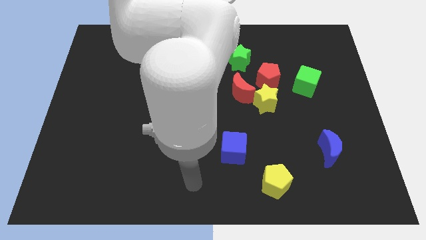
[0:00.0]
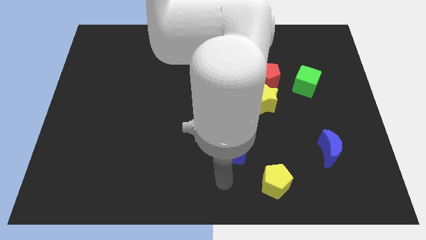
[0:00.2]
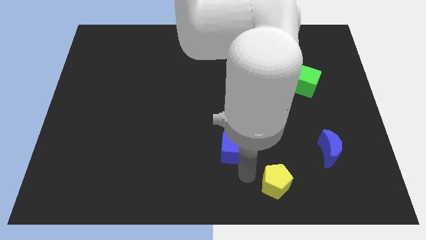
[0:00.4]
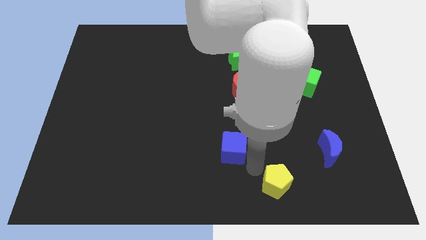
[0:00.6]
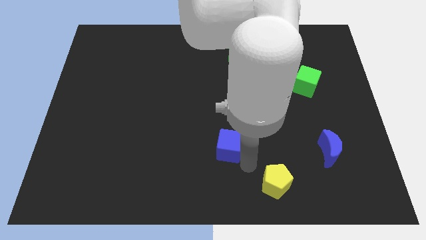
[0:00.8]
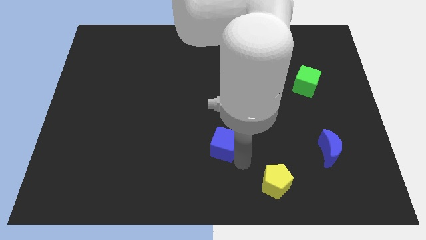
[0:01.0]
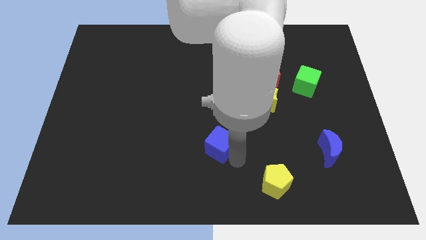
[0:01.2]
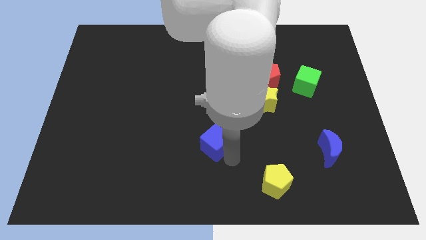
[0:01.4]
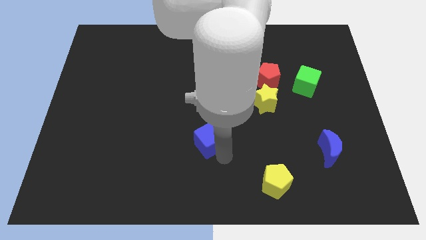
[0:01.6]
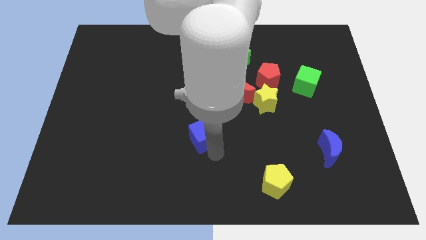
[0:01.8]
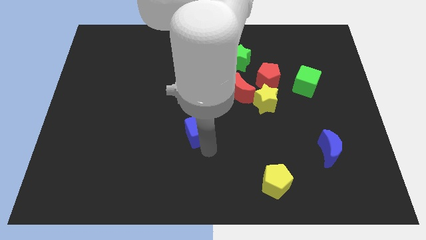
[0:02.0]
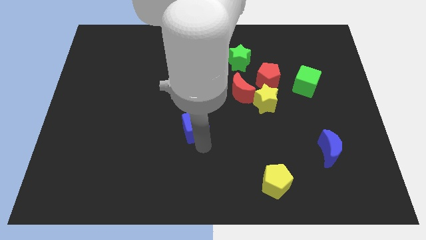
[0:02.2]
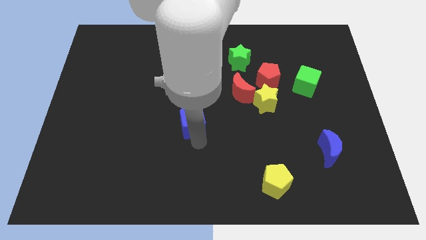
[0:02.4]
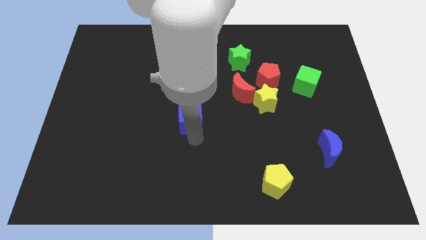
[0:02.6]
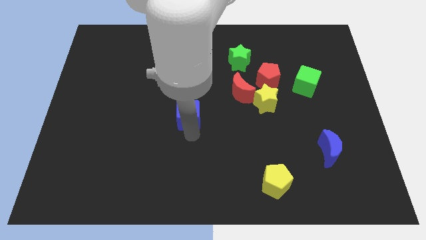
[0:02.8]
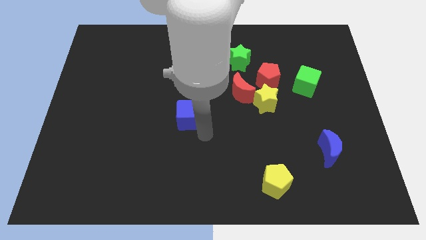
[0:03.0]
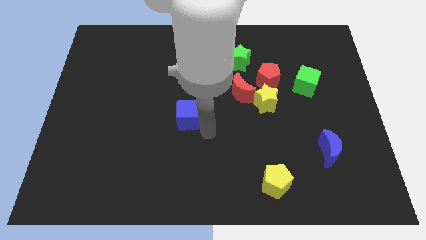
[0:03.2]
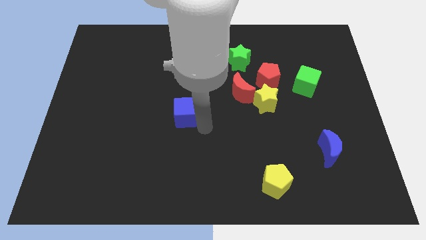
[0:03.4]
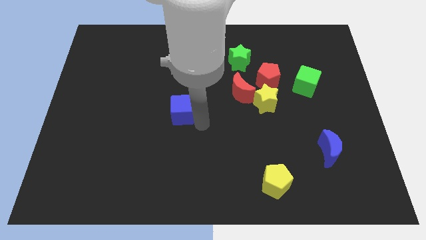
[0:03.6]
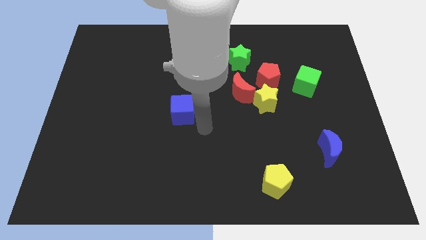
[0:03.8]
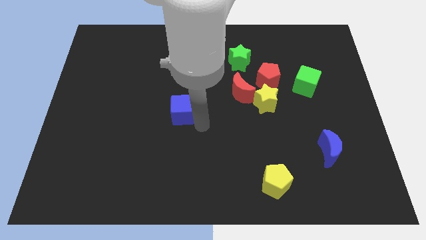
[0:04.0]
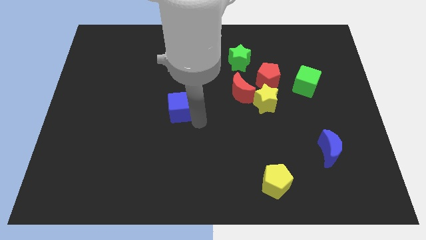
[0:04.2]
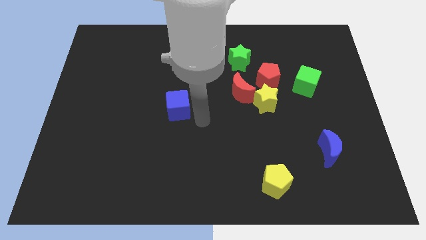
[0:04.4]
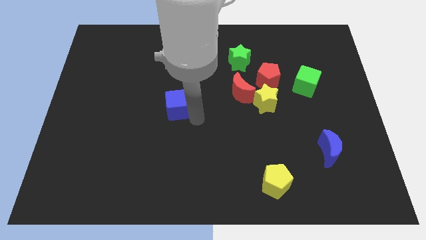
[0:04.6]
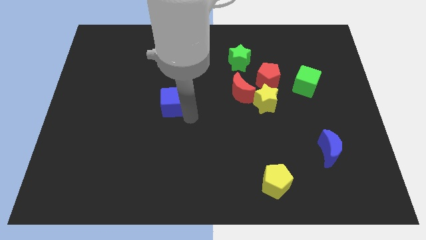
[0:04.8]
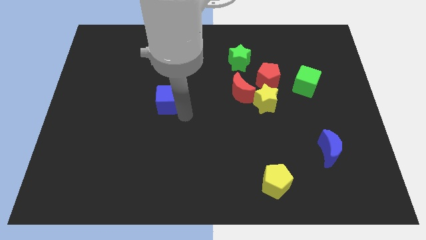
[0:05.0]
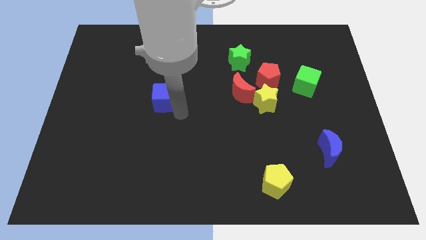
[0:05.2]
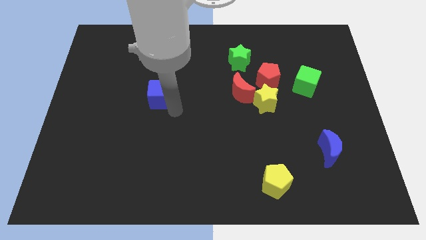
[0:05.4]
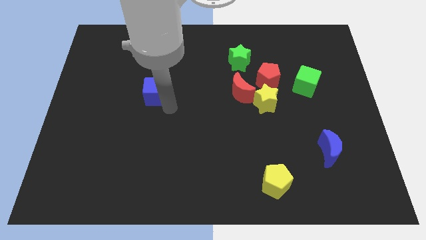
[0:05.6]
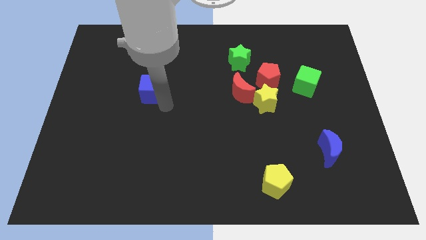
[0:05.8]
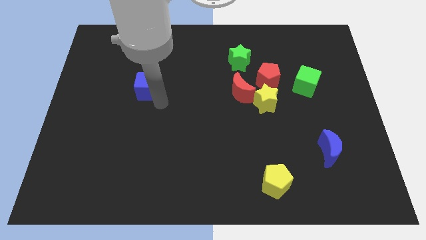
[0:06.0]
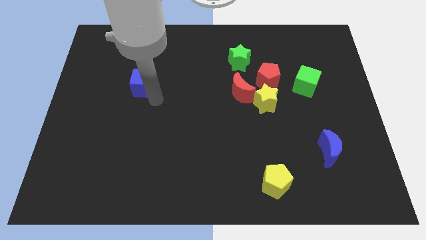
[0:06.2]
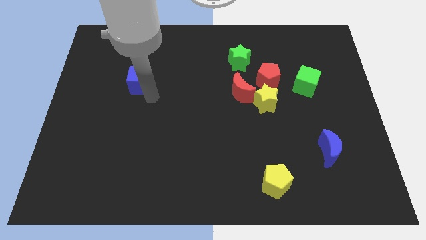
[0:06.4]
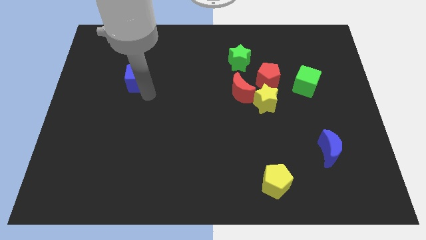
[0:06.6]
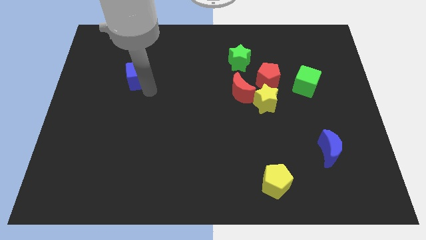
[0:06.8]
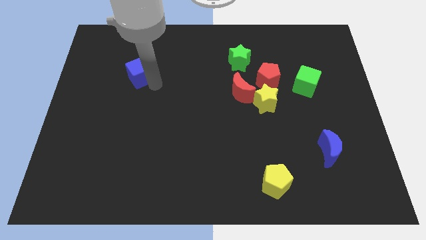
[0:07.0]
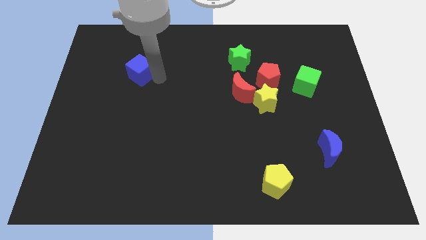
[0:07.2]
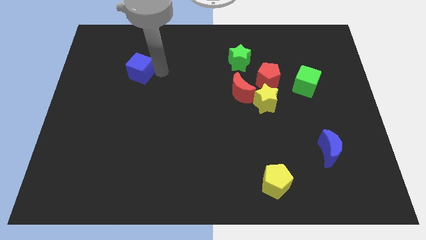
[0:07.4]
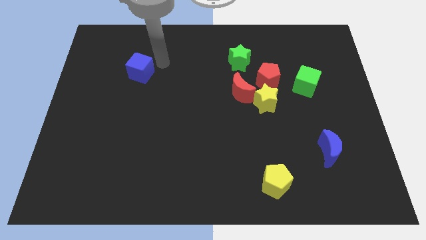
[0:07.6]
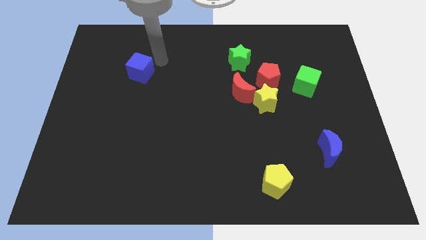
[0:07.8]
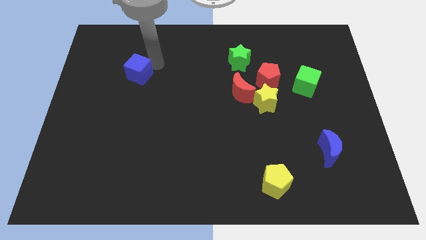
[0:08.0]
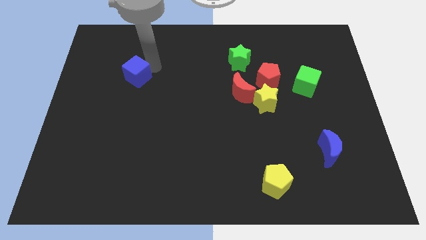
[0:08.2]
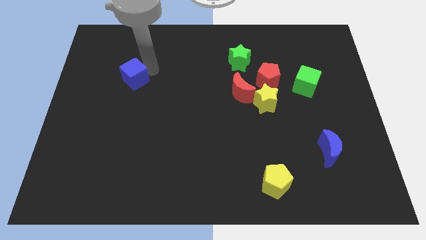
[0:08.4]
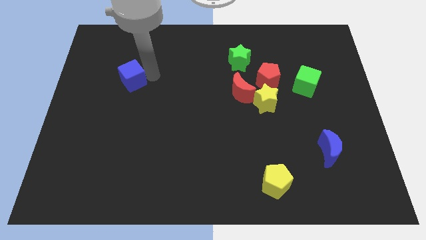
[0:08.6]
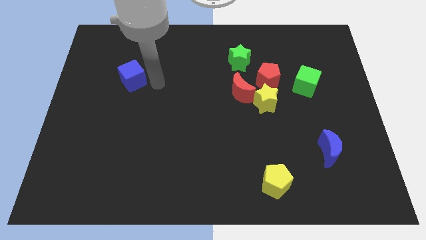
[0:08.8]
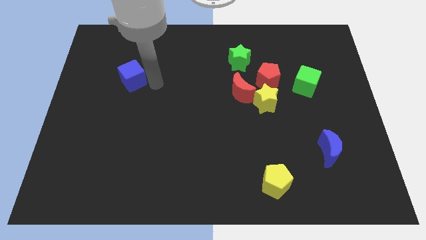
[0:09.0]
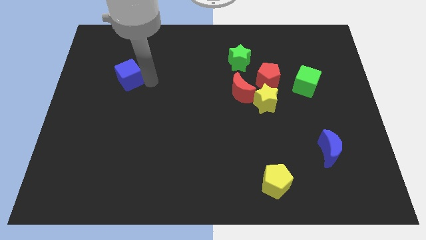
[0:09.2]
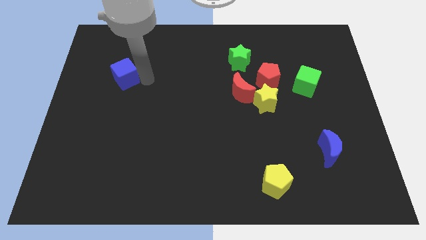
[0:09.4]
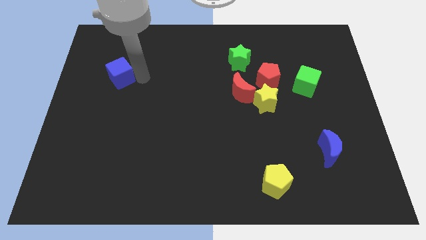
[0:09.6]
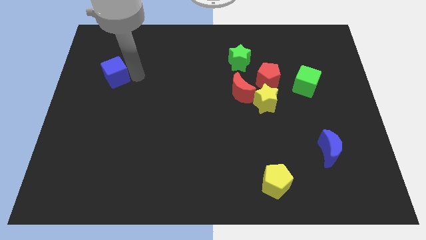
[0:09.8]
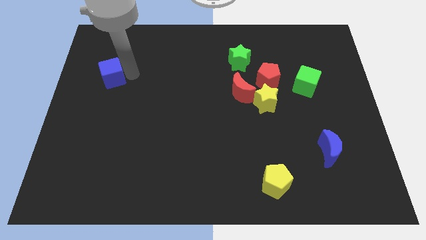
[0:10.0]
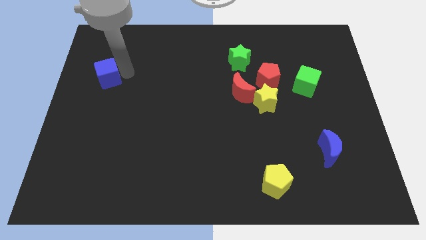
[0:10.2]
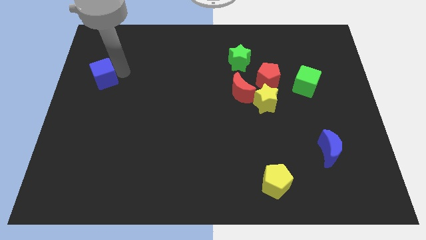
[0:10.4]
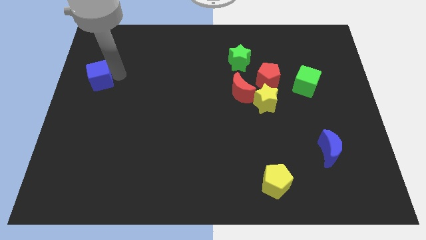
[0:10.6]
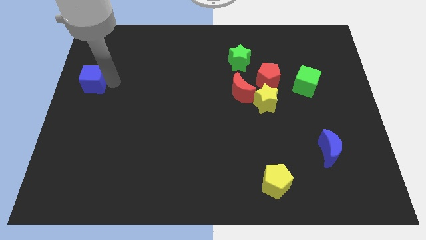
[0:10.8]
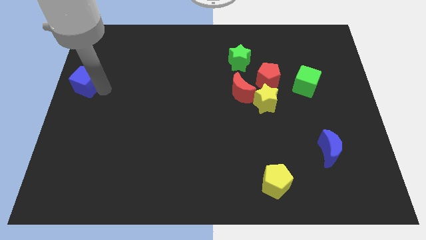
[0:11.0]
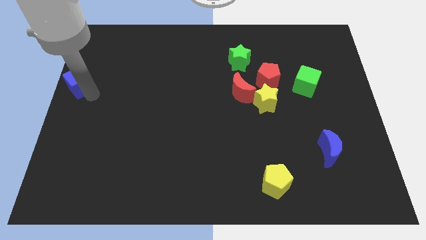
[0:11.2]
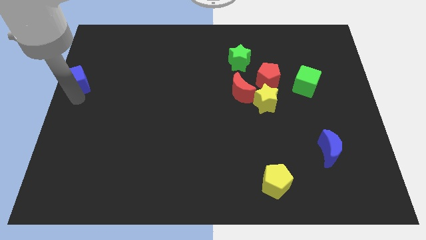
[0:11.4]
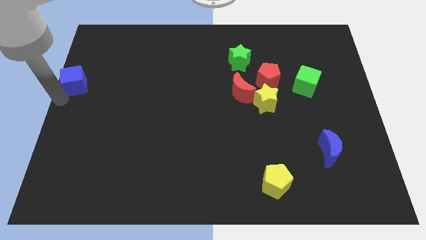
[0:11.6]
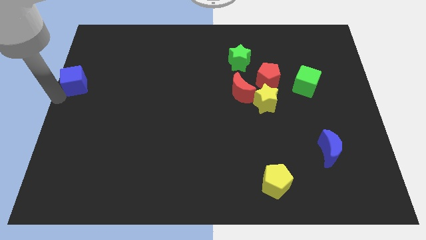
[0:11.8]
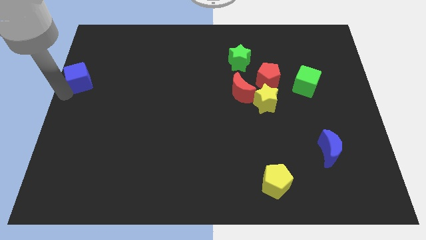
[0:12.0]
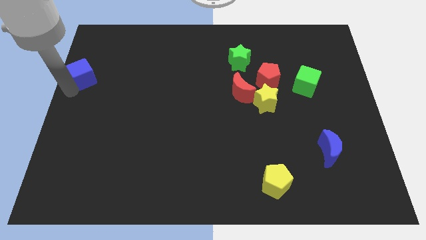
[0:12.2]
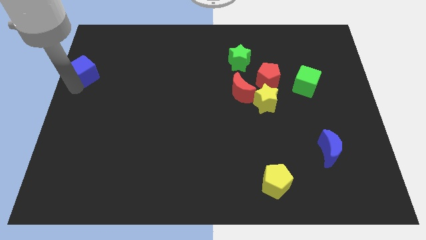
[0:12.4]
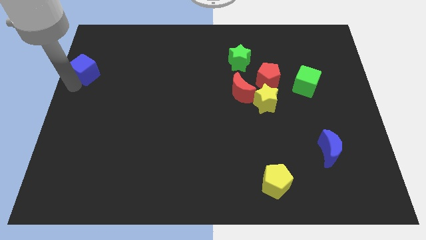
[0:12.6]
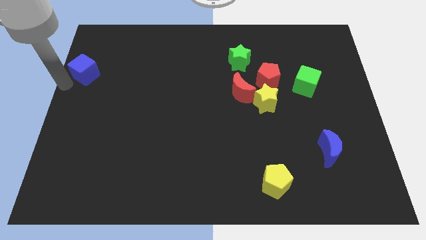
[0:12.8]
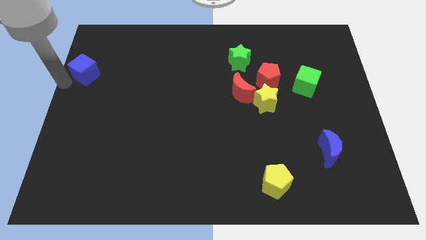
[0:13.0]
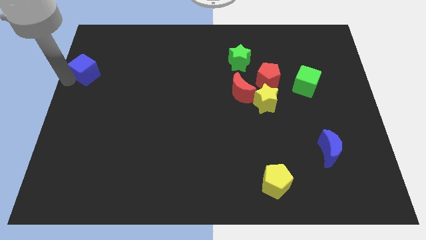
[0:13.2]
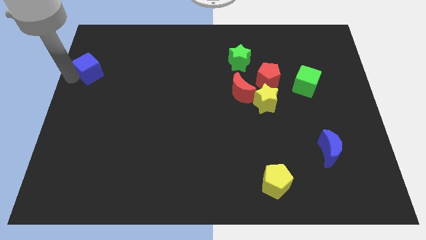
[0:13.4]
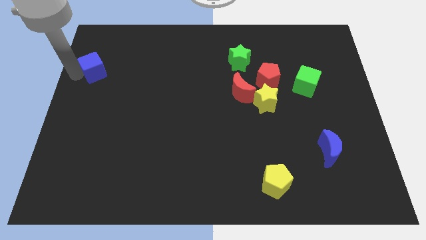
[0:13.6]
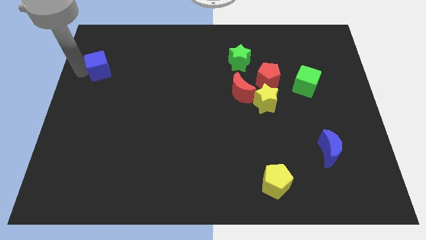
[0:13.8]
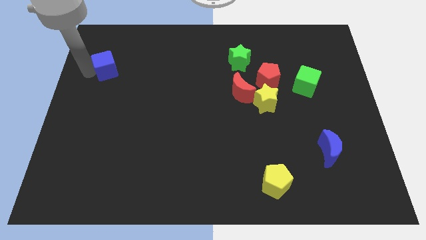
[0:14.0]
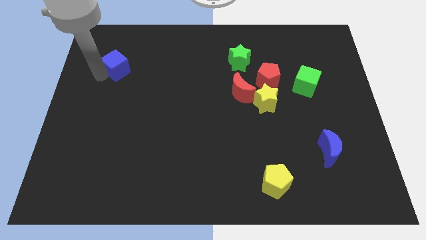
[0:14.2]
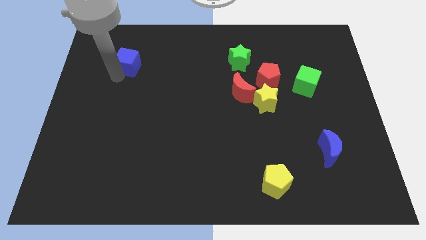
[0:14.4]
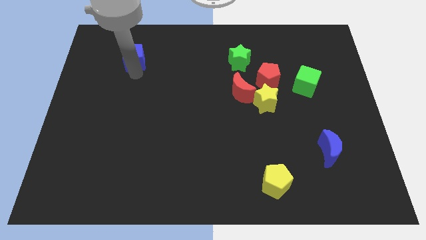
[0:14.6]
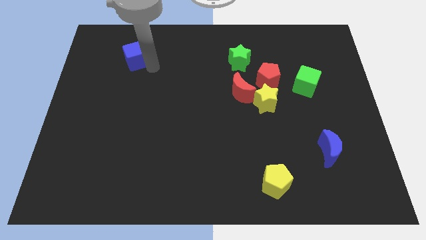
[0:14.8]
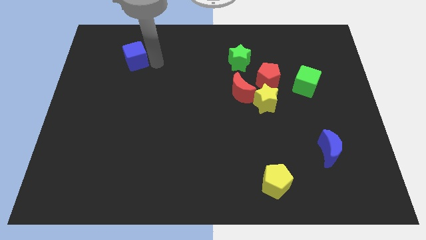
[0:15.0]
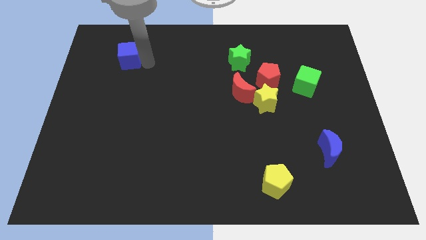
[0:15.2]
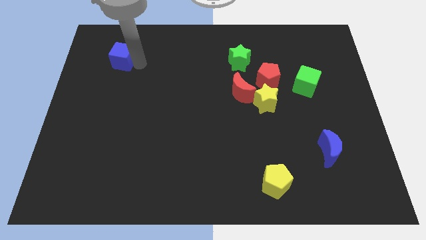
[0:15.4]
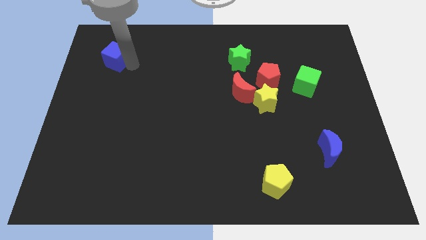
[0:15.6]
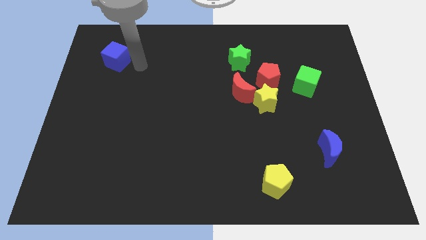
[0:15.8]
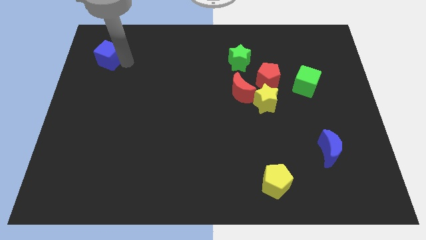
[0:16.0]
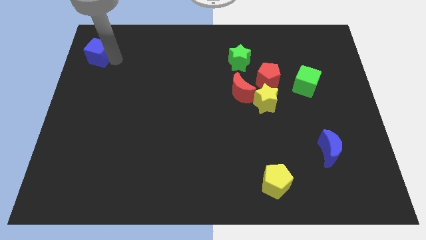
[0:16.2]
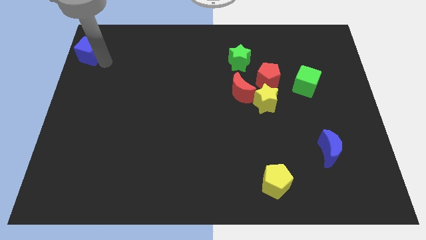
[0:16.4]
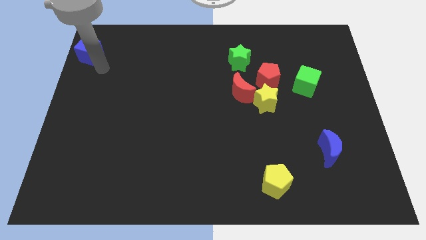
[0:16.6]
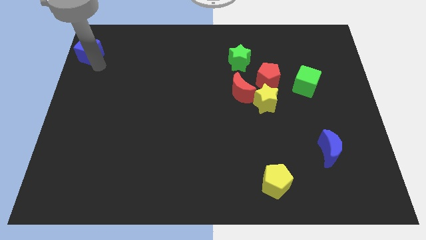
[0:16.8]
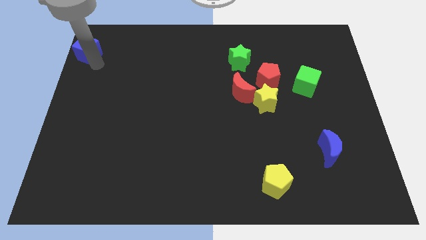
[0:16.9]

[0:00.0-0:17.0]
slide the blue cube to the top left corner
